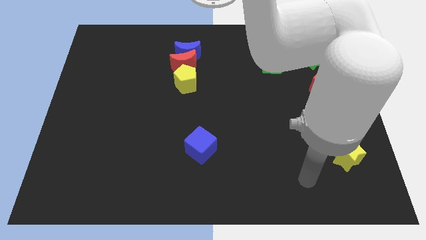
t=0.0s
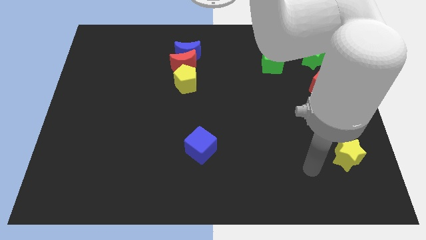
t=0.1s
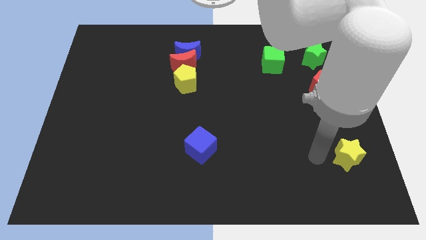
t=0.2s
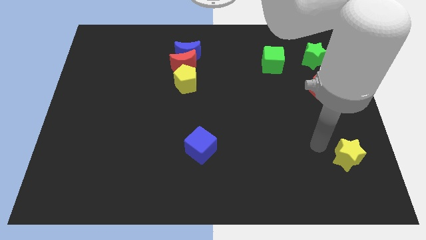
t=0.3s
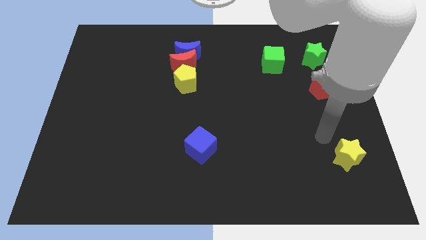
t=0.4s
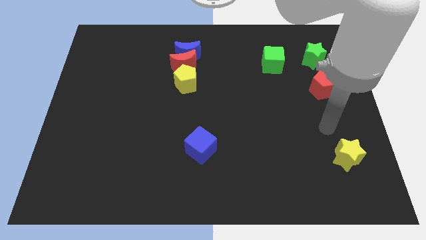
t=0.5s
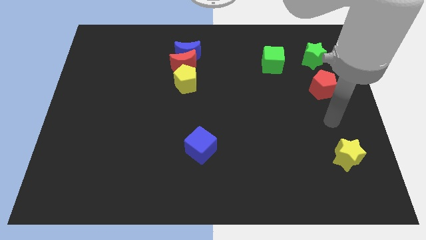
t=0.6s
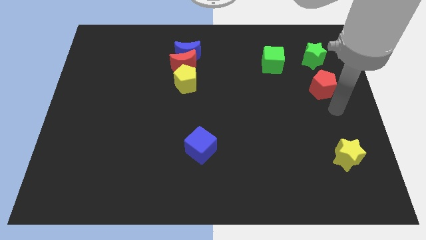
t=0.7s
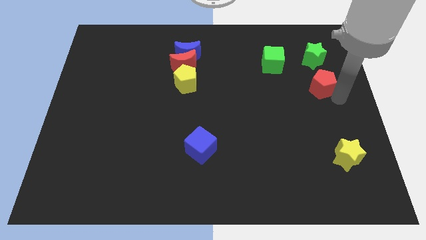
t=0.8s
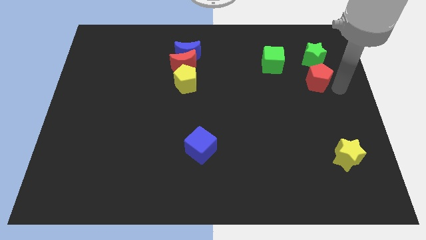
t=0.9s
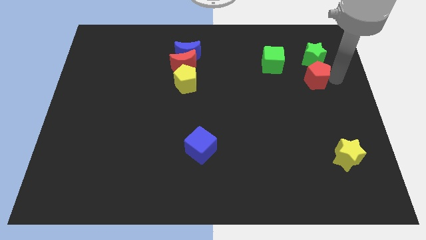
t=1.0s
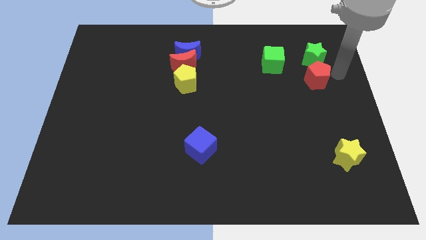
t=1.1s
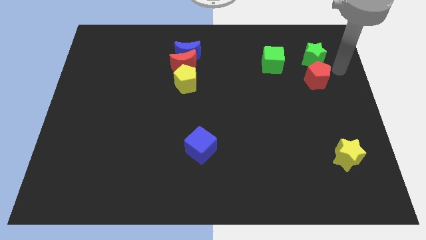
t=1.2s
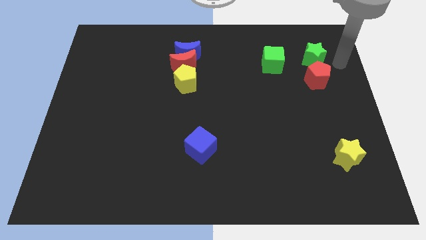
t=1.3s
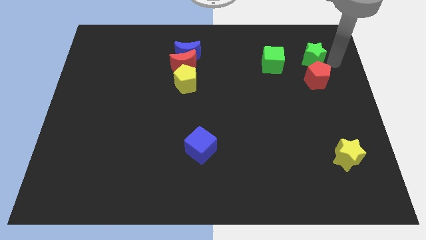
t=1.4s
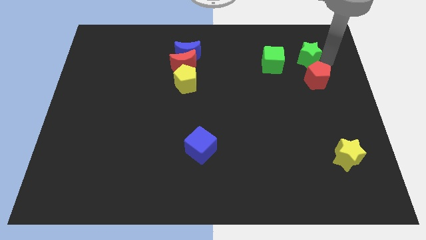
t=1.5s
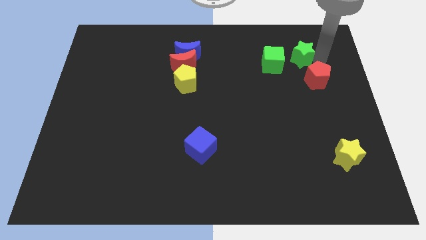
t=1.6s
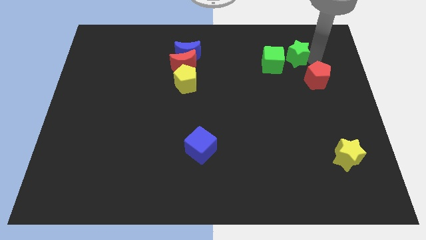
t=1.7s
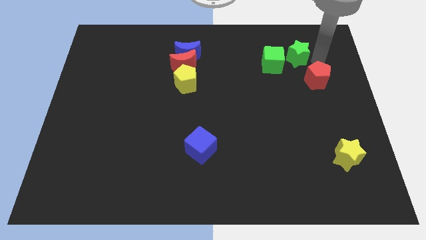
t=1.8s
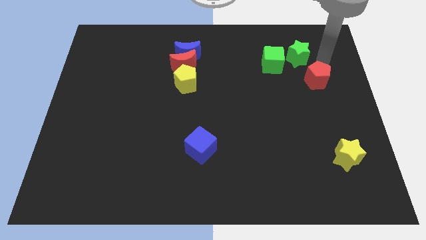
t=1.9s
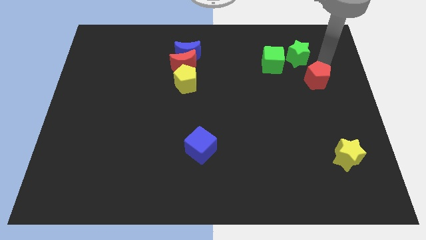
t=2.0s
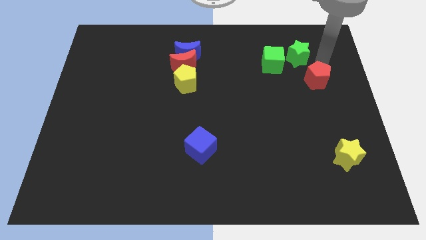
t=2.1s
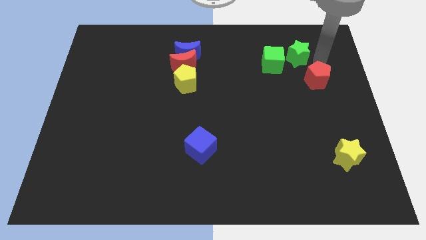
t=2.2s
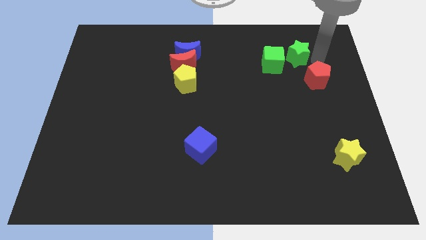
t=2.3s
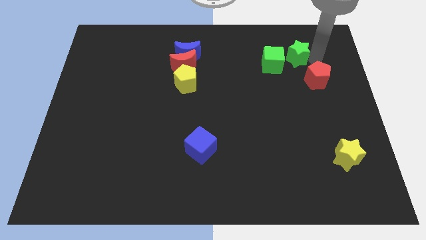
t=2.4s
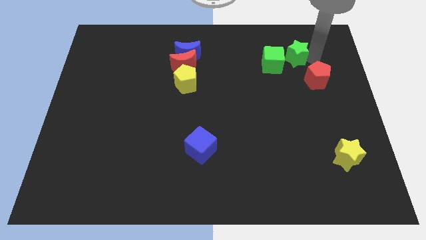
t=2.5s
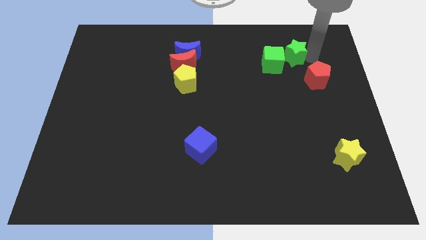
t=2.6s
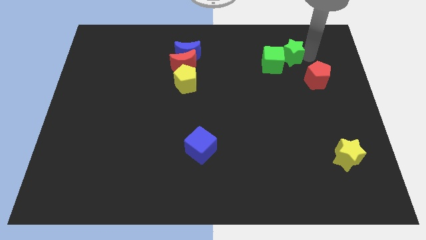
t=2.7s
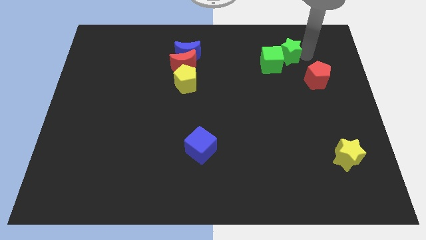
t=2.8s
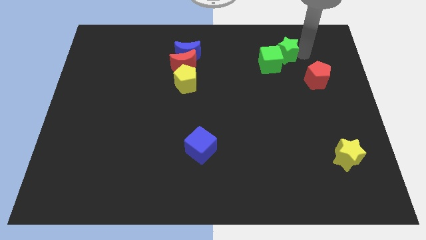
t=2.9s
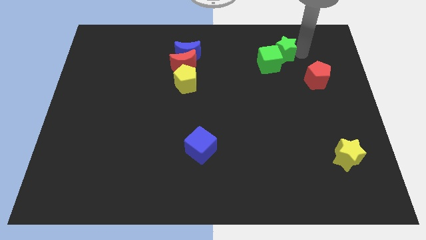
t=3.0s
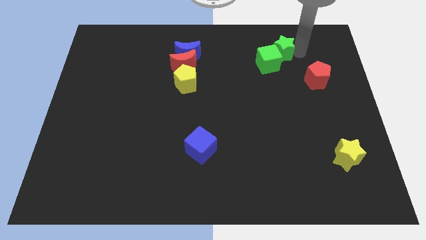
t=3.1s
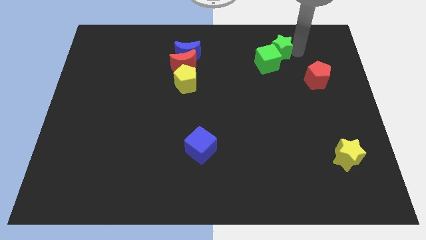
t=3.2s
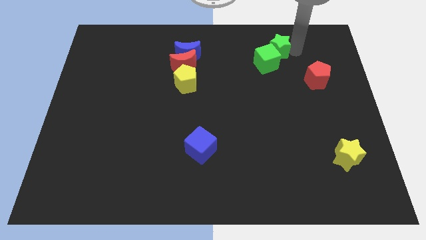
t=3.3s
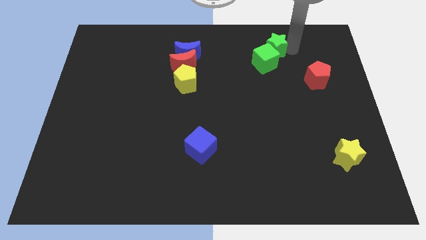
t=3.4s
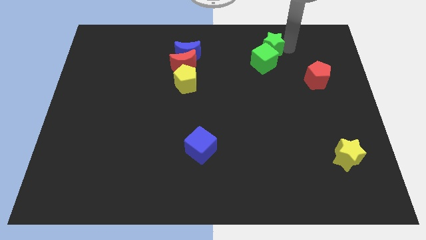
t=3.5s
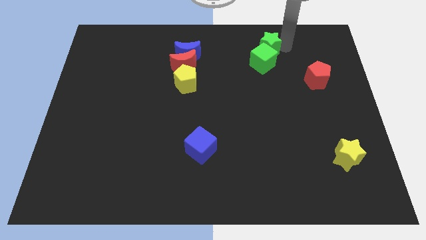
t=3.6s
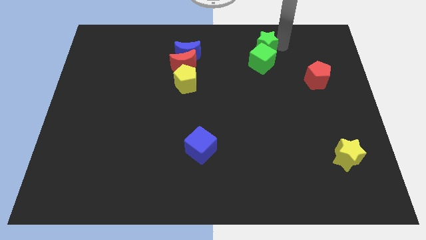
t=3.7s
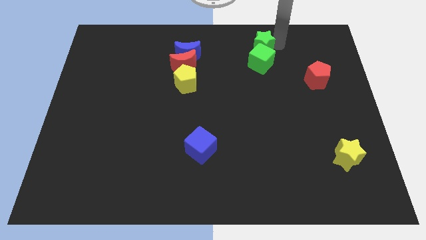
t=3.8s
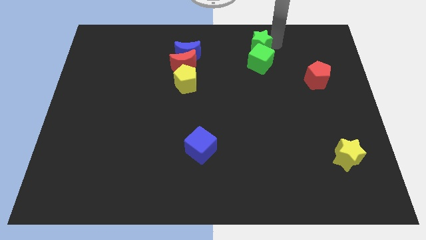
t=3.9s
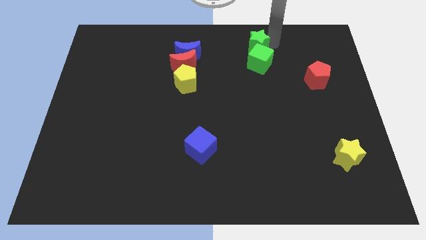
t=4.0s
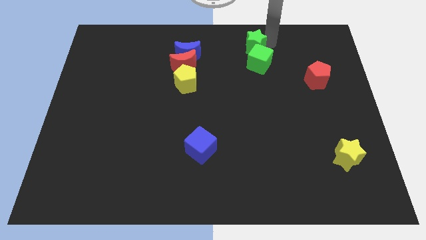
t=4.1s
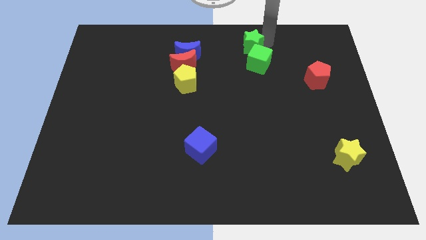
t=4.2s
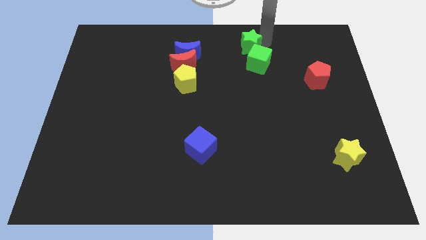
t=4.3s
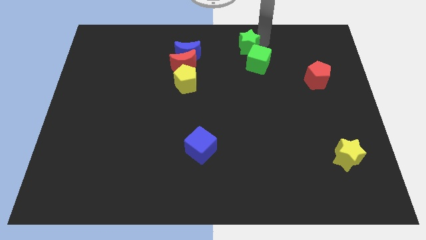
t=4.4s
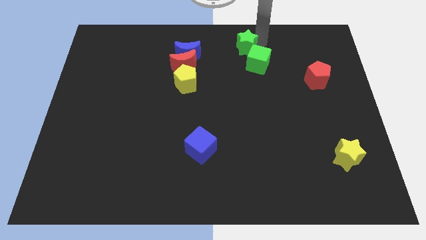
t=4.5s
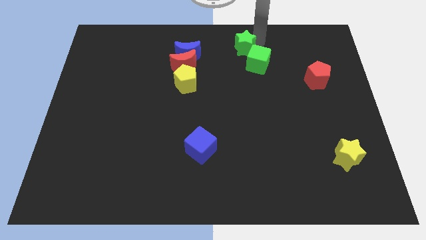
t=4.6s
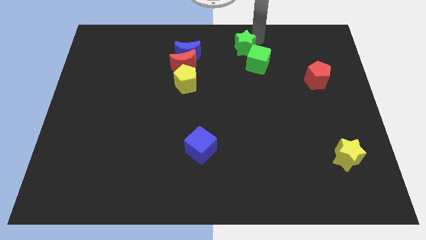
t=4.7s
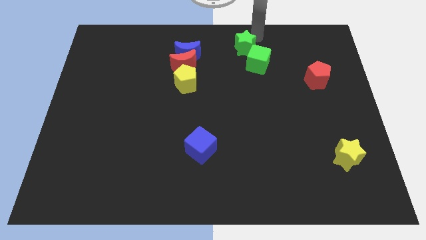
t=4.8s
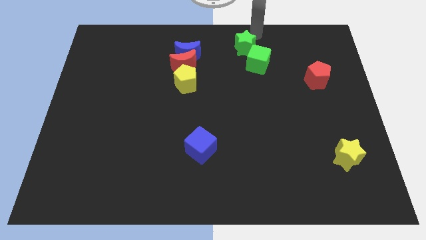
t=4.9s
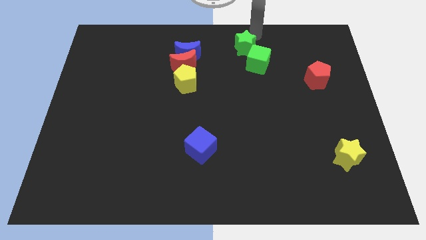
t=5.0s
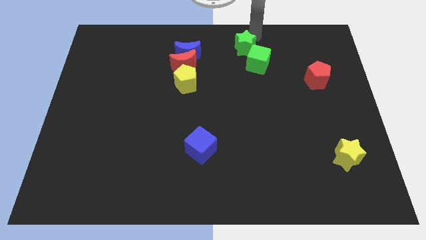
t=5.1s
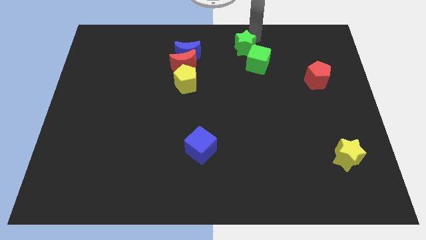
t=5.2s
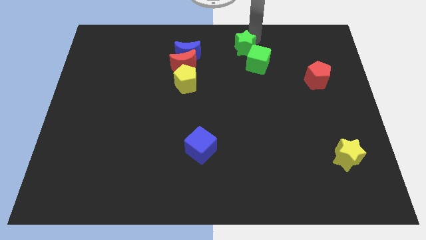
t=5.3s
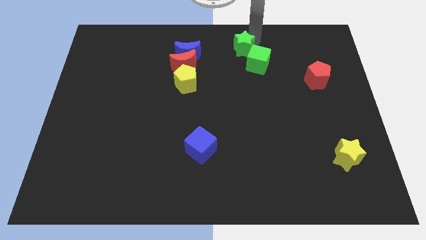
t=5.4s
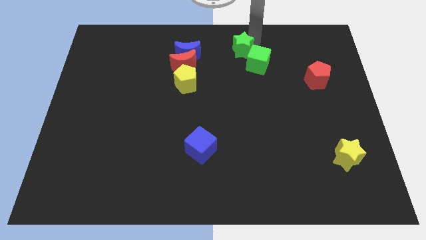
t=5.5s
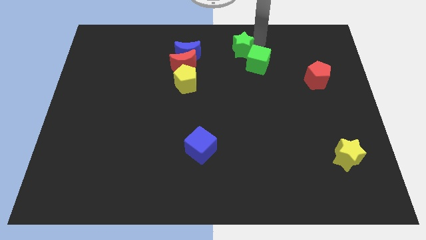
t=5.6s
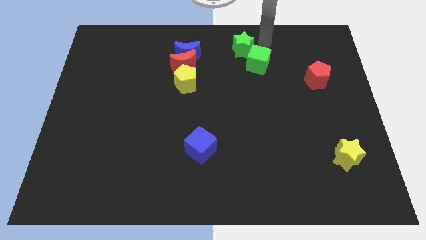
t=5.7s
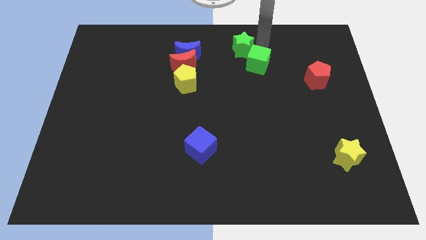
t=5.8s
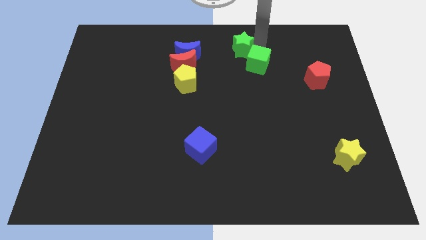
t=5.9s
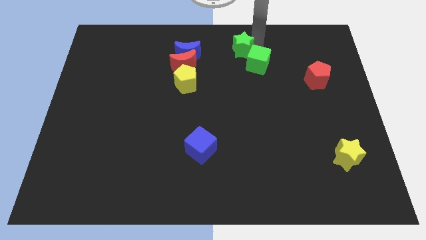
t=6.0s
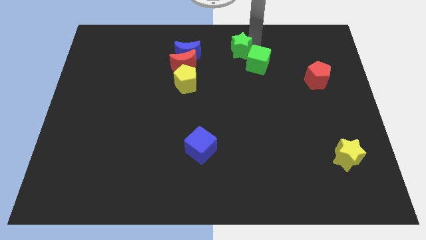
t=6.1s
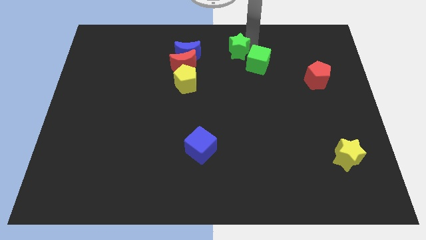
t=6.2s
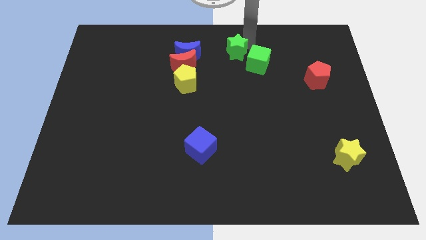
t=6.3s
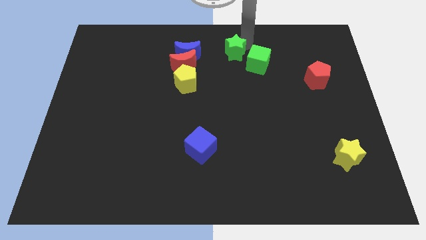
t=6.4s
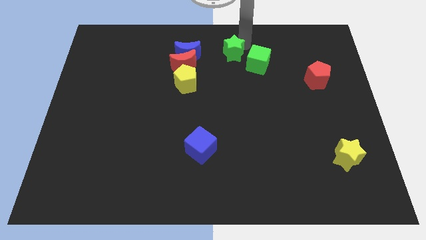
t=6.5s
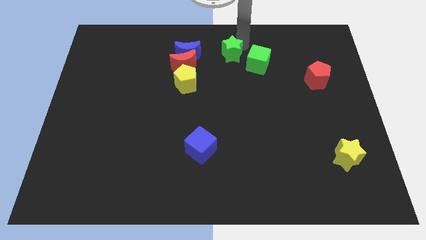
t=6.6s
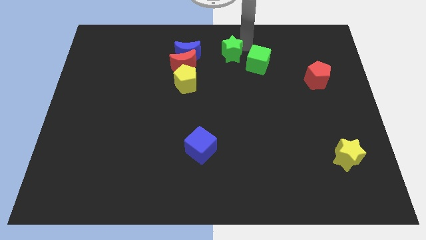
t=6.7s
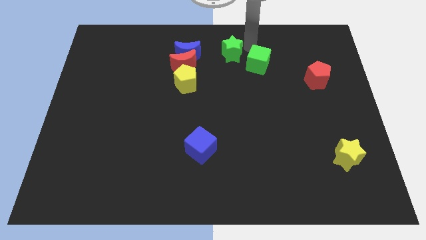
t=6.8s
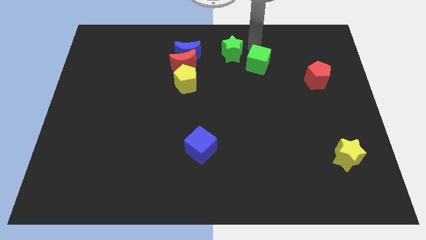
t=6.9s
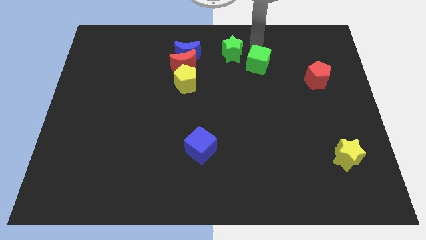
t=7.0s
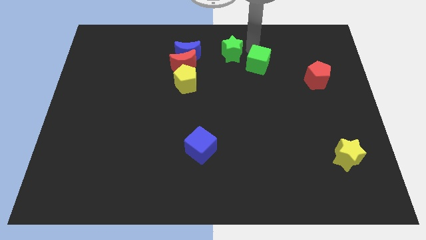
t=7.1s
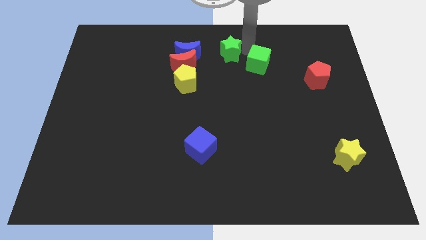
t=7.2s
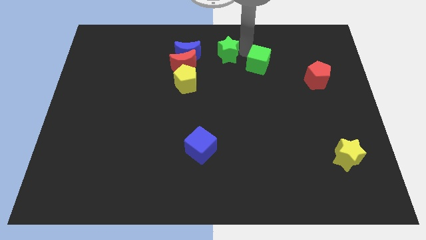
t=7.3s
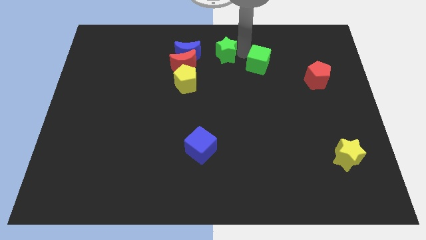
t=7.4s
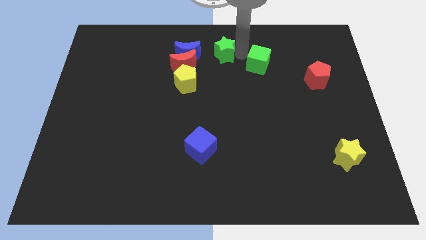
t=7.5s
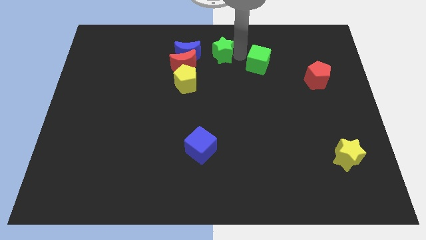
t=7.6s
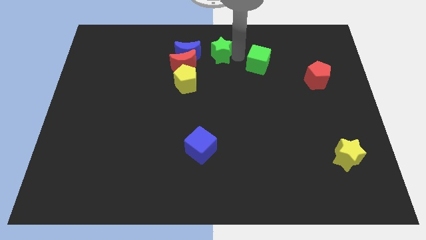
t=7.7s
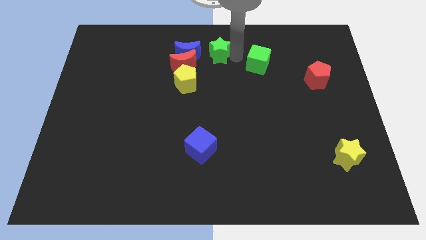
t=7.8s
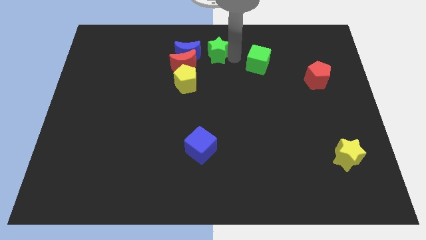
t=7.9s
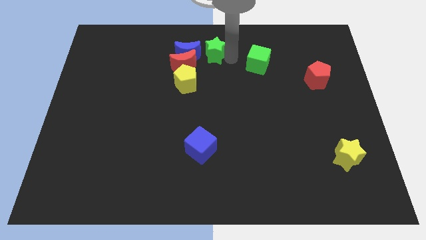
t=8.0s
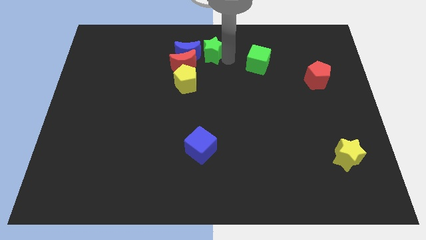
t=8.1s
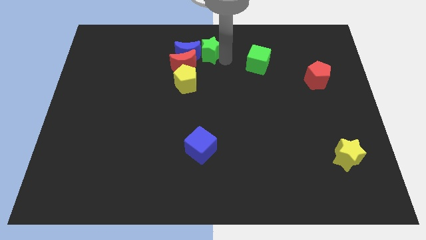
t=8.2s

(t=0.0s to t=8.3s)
put the green star close to the blue moon
